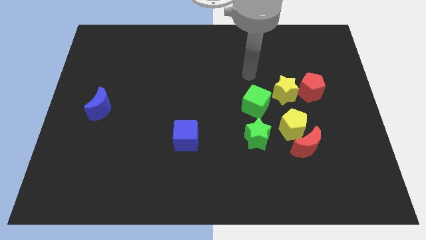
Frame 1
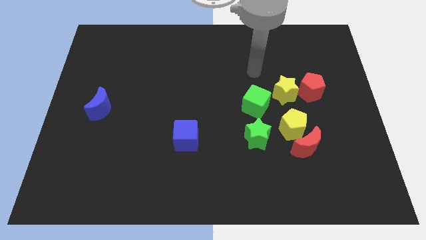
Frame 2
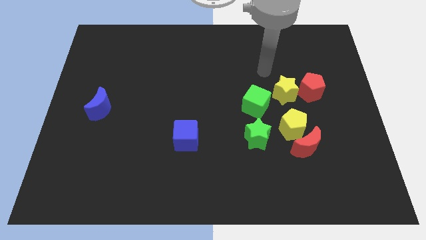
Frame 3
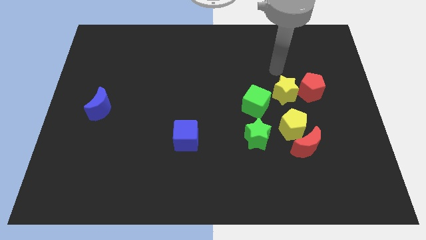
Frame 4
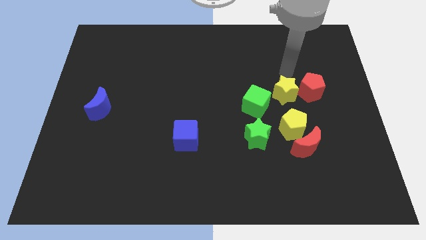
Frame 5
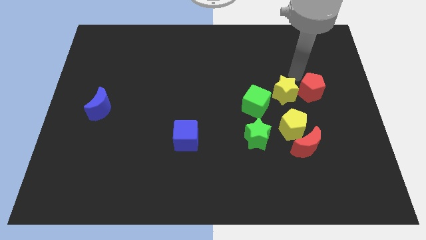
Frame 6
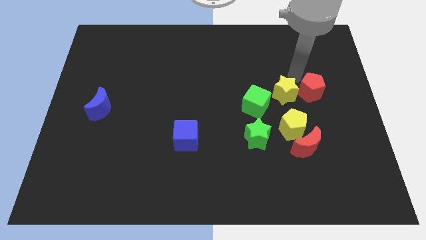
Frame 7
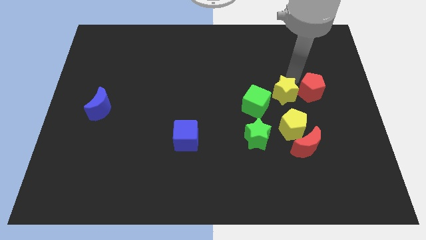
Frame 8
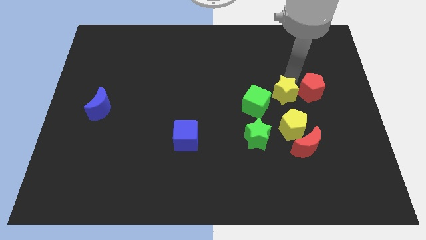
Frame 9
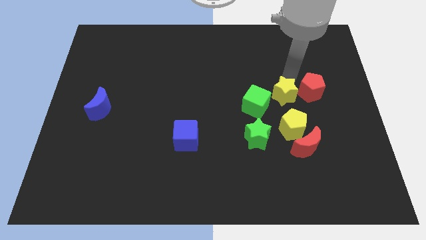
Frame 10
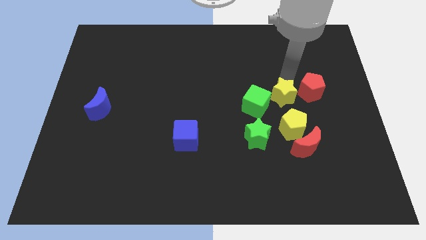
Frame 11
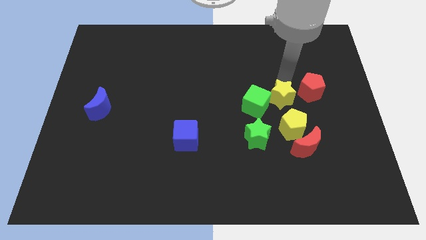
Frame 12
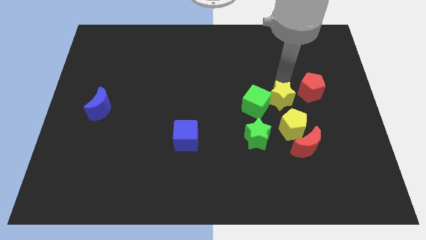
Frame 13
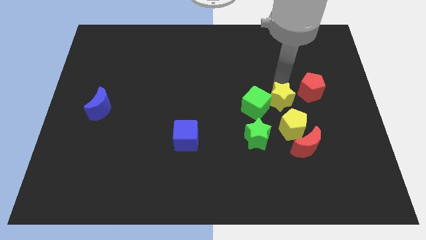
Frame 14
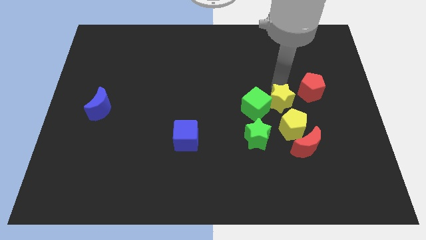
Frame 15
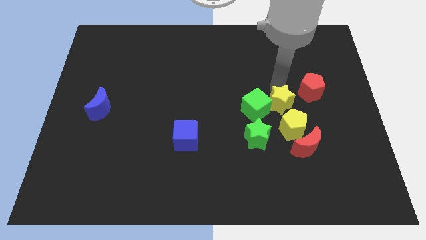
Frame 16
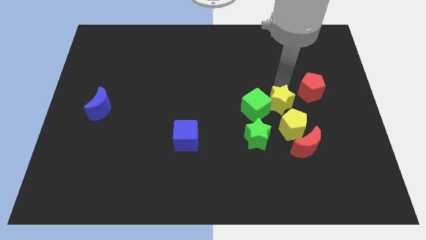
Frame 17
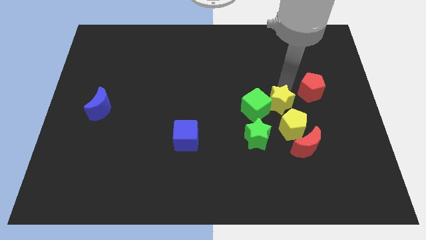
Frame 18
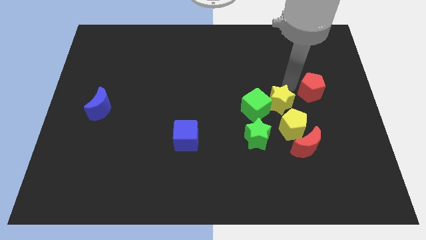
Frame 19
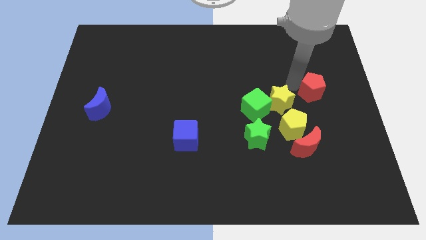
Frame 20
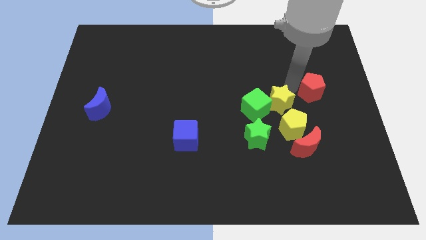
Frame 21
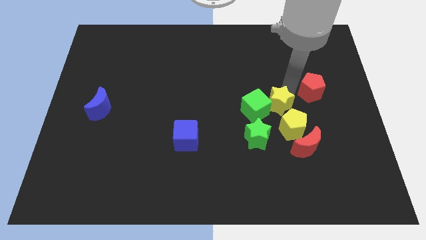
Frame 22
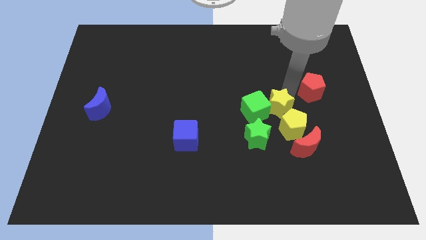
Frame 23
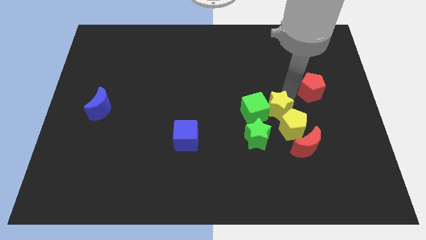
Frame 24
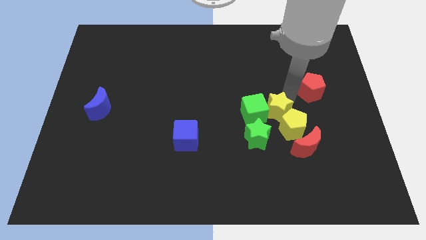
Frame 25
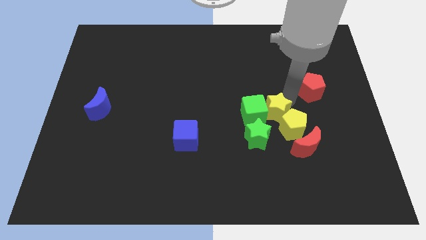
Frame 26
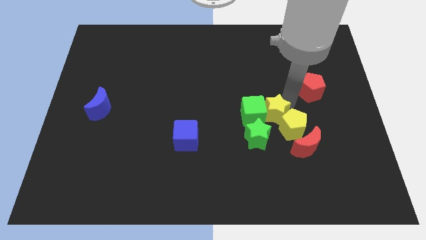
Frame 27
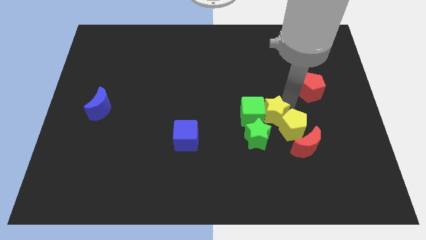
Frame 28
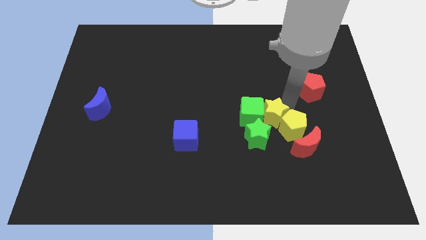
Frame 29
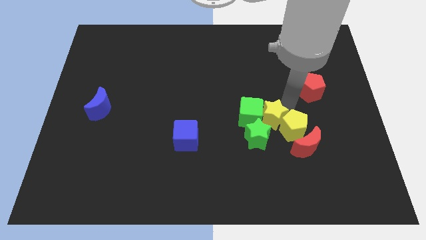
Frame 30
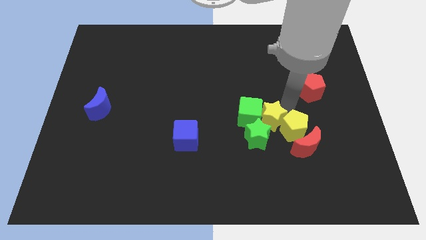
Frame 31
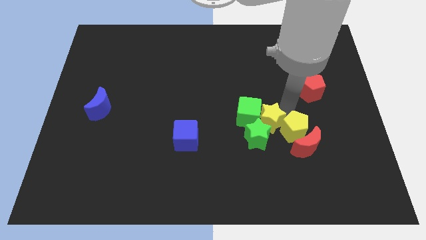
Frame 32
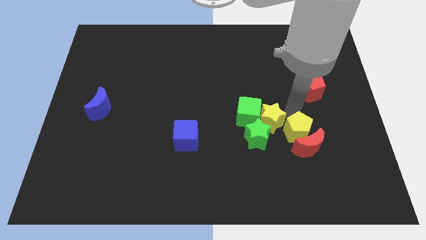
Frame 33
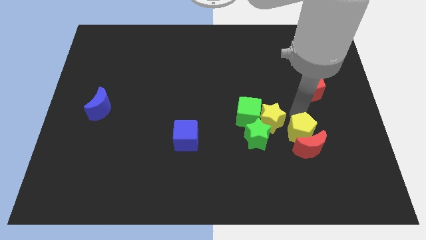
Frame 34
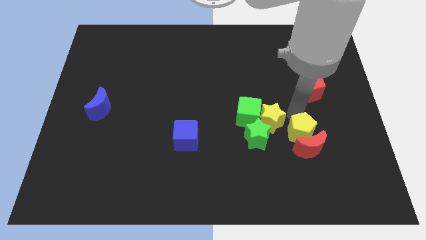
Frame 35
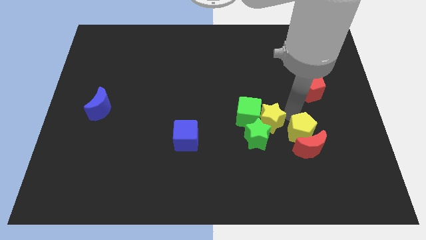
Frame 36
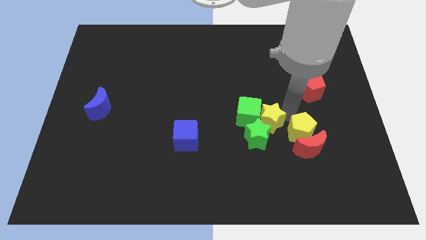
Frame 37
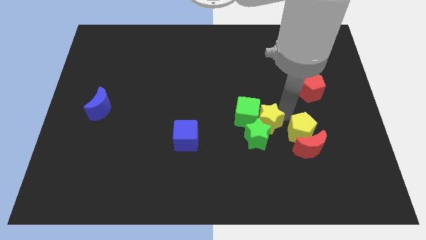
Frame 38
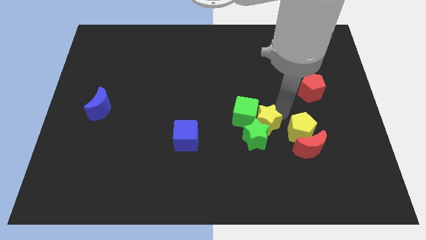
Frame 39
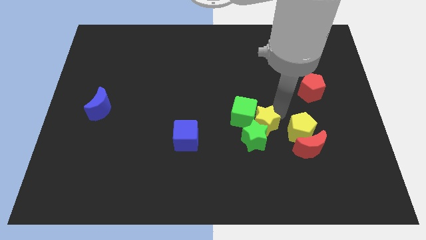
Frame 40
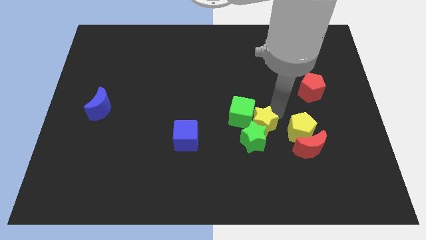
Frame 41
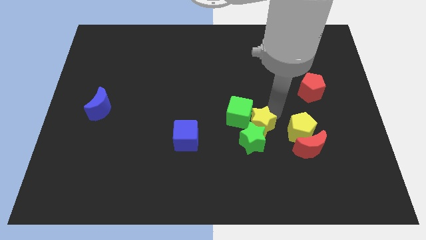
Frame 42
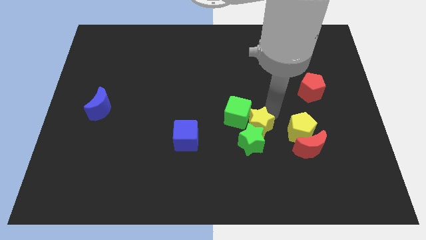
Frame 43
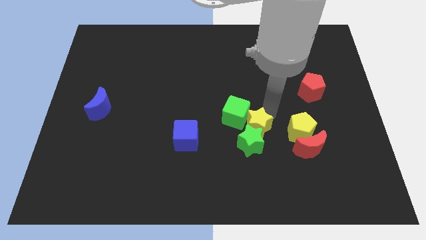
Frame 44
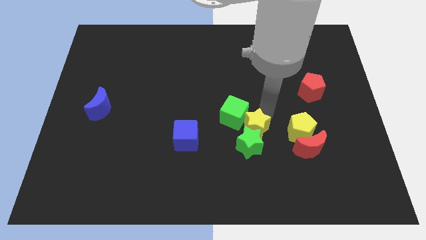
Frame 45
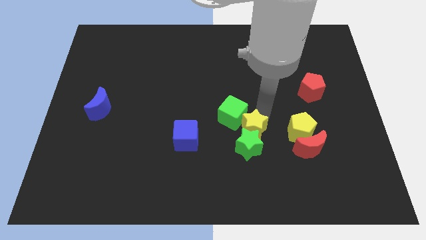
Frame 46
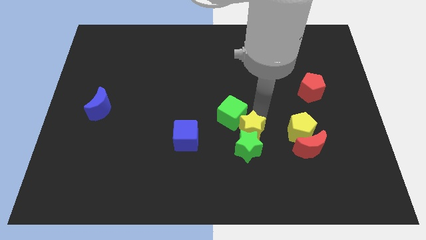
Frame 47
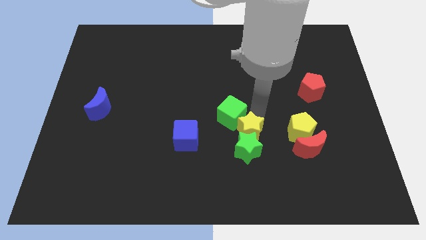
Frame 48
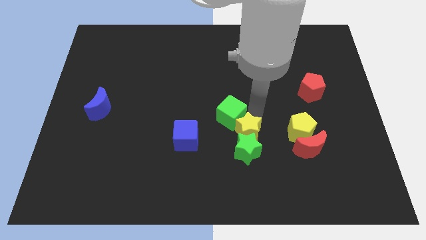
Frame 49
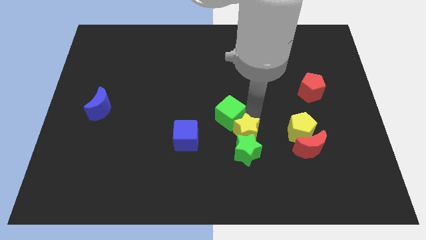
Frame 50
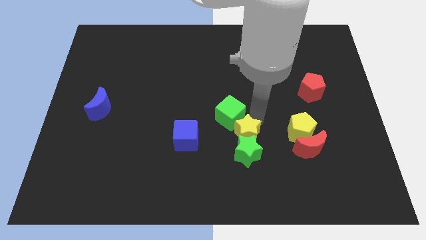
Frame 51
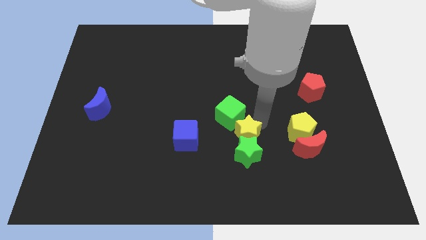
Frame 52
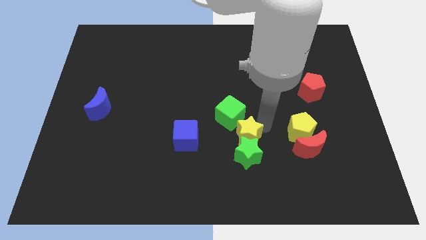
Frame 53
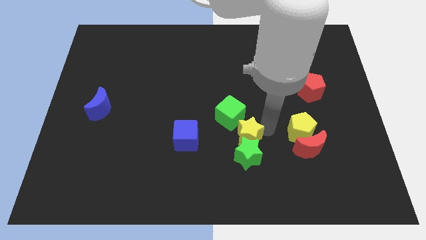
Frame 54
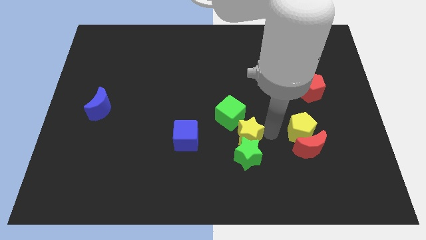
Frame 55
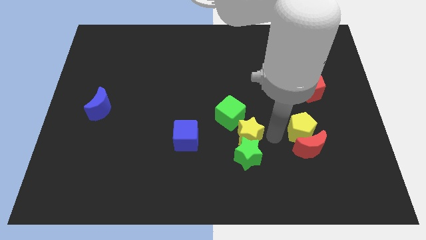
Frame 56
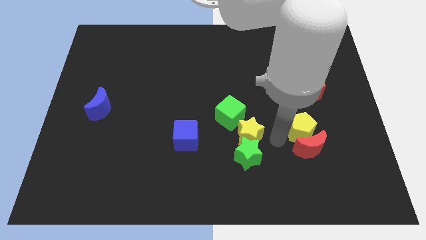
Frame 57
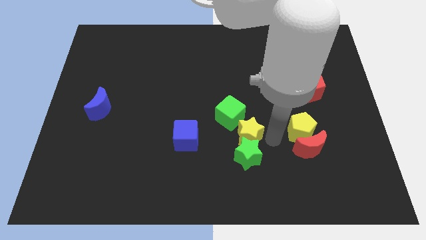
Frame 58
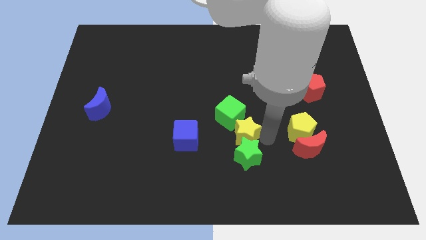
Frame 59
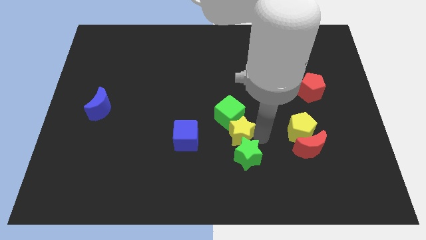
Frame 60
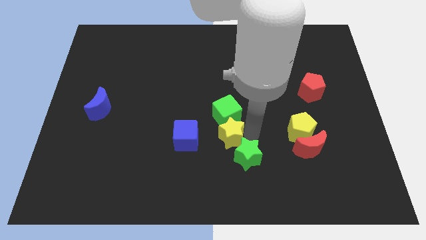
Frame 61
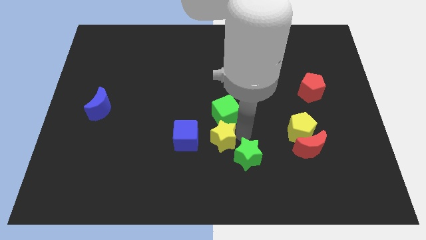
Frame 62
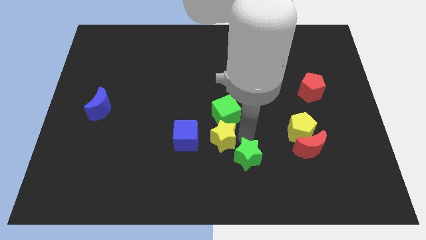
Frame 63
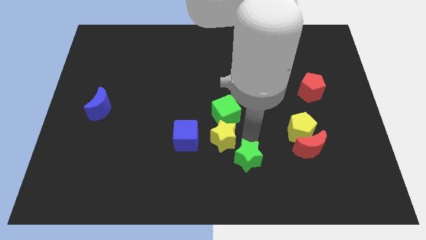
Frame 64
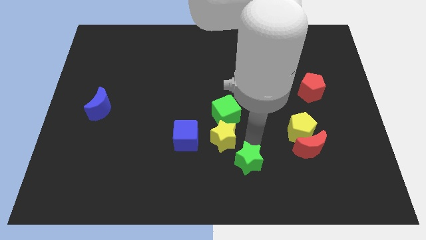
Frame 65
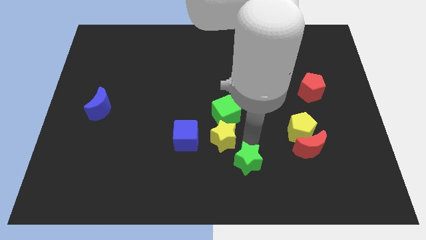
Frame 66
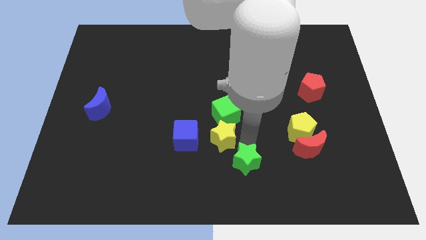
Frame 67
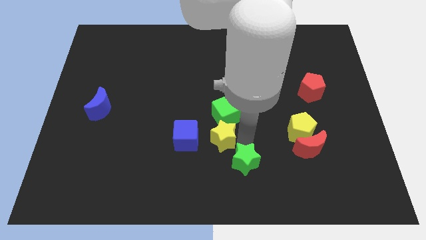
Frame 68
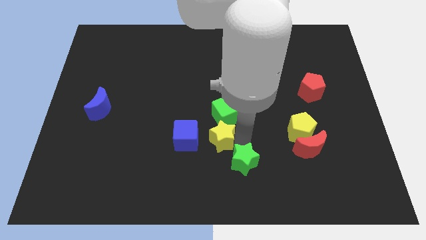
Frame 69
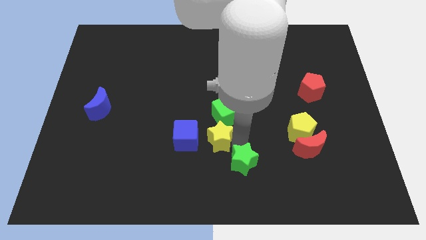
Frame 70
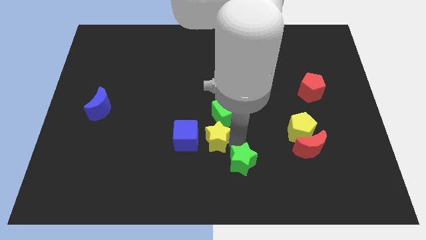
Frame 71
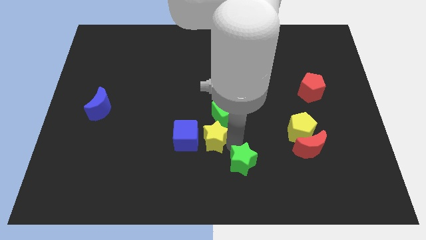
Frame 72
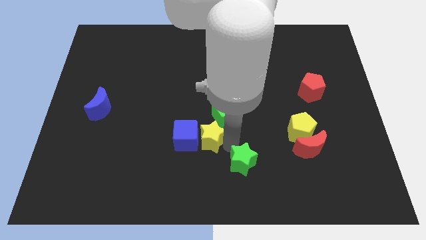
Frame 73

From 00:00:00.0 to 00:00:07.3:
slide the yellow star towards the blue cube
